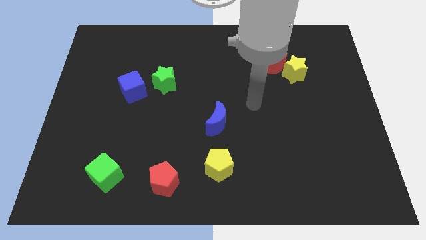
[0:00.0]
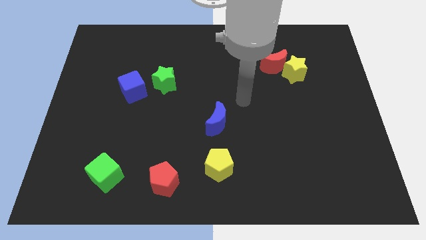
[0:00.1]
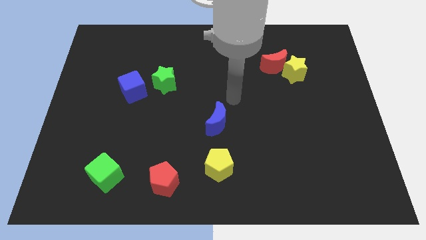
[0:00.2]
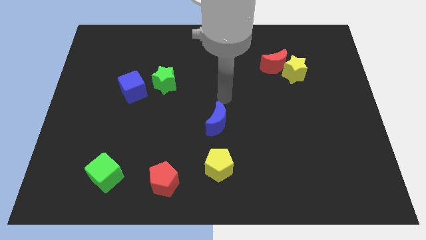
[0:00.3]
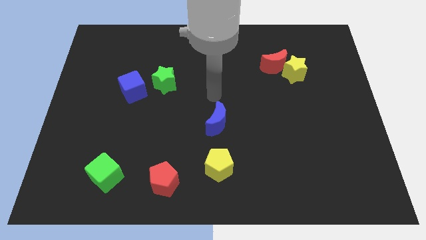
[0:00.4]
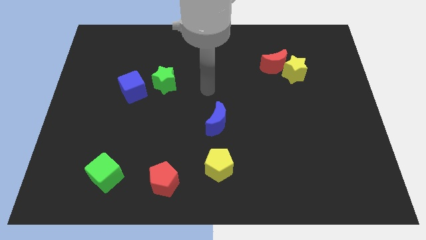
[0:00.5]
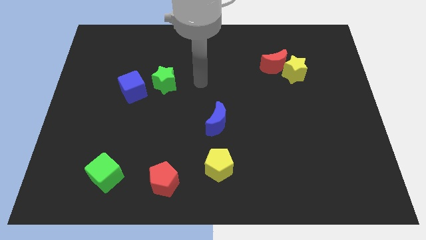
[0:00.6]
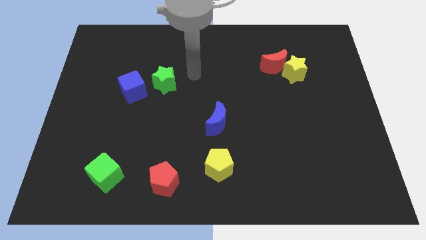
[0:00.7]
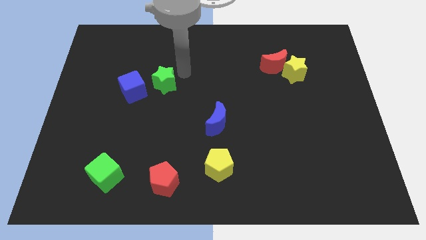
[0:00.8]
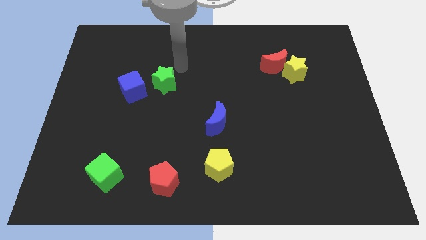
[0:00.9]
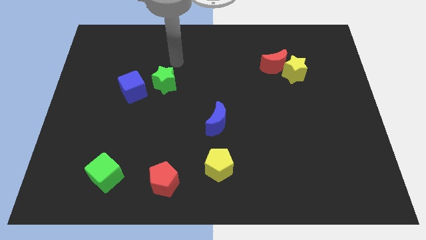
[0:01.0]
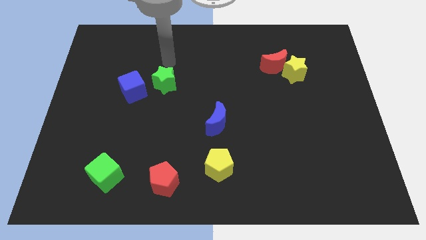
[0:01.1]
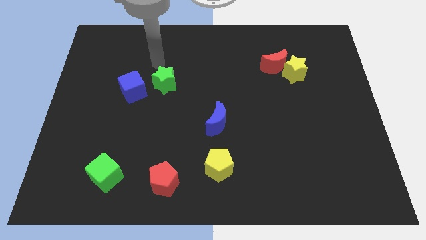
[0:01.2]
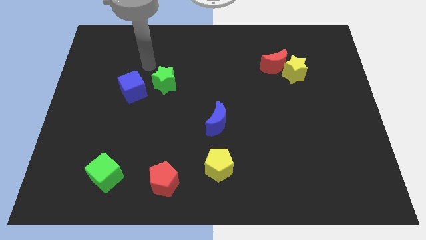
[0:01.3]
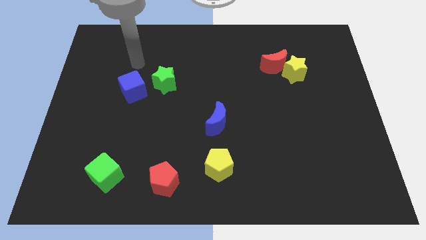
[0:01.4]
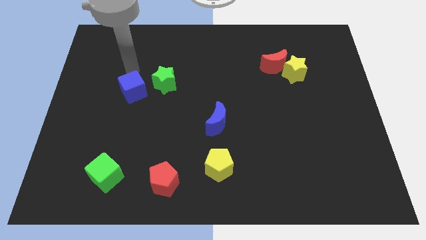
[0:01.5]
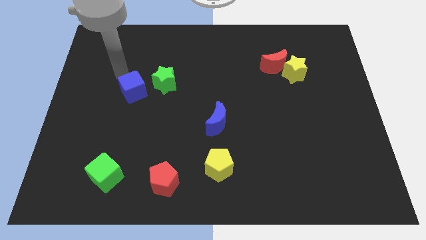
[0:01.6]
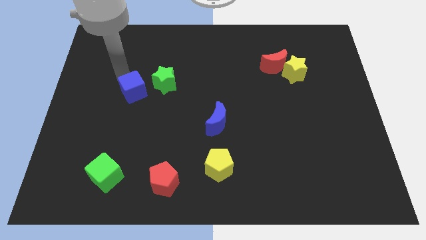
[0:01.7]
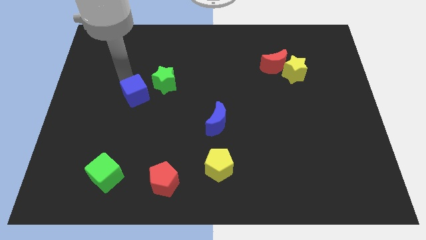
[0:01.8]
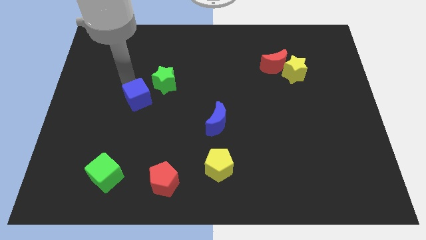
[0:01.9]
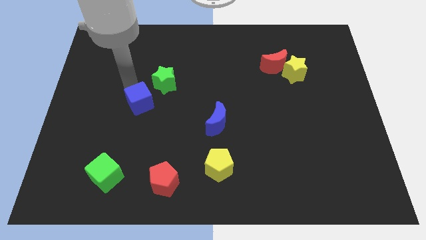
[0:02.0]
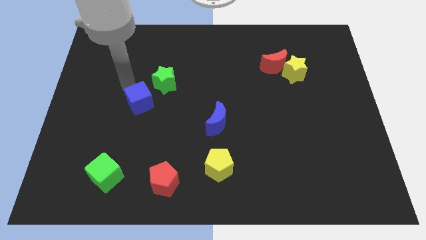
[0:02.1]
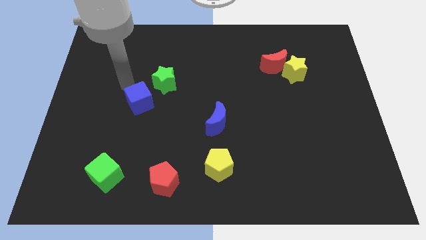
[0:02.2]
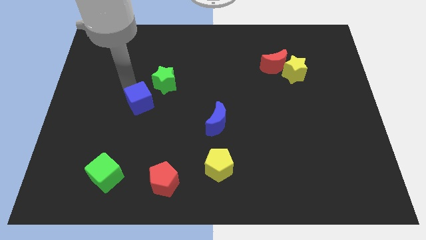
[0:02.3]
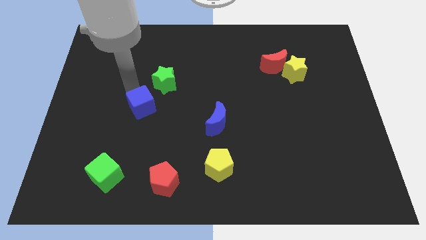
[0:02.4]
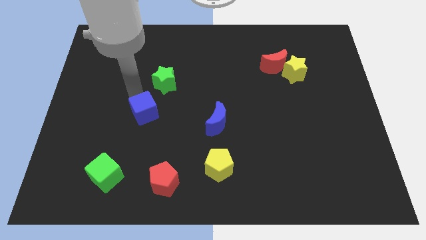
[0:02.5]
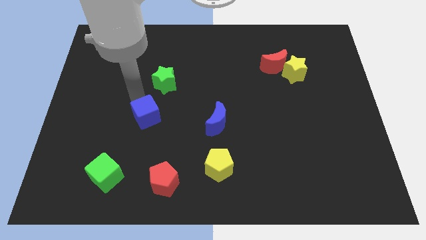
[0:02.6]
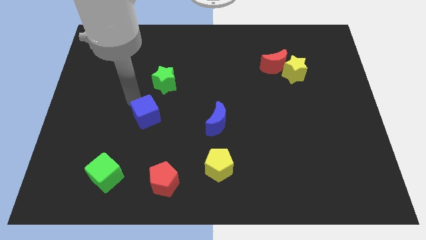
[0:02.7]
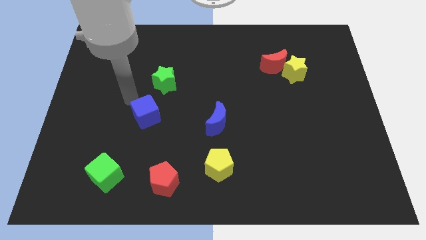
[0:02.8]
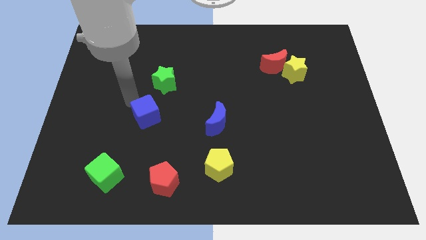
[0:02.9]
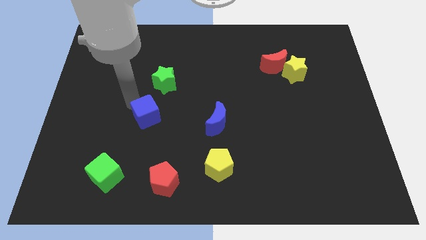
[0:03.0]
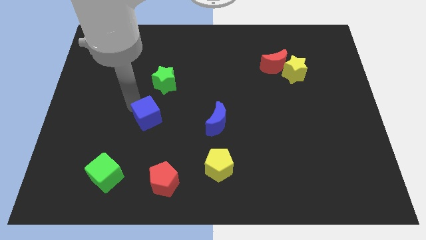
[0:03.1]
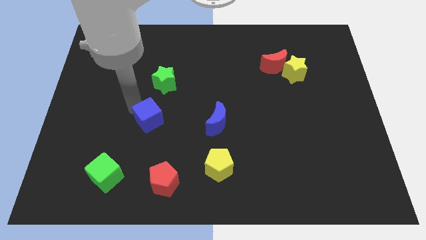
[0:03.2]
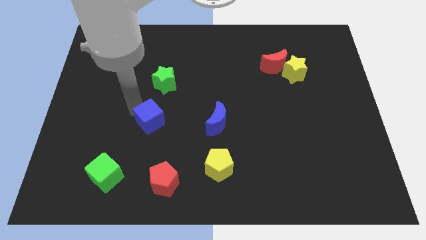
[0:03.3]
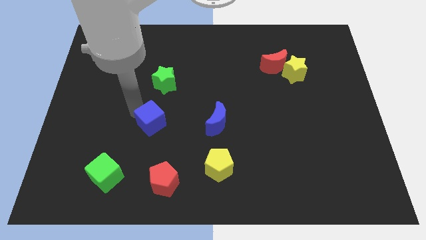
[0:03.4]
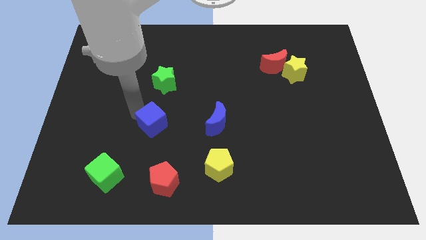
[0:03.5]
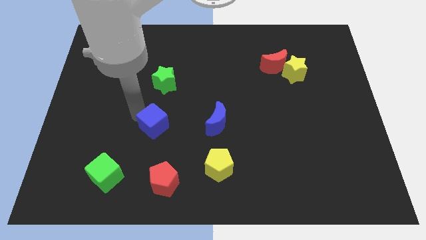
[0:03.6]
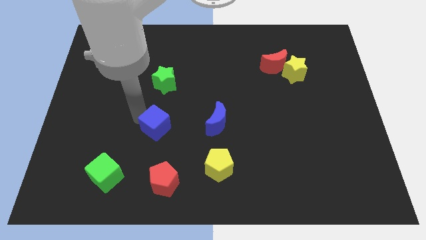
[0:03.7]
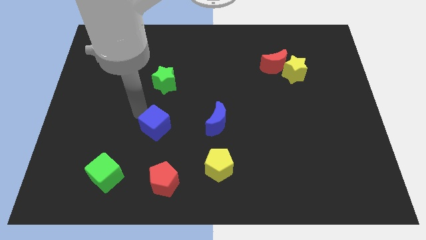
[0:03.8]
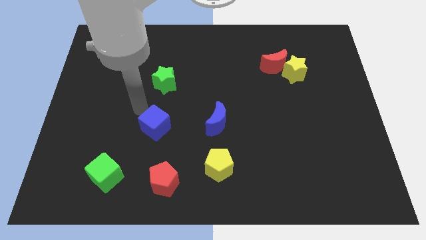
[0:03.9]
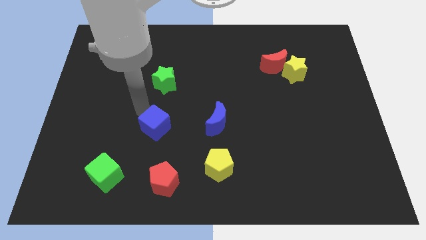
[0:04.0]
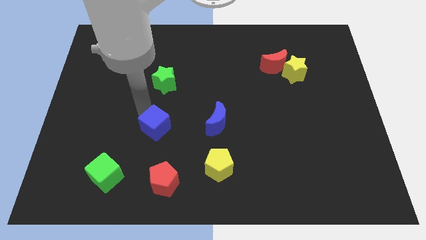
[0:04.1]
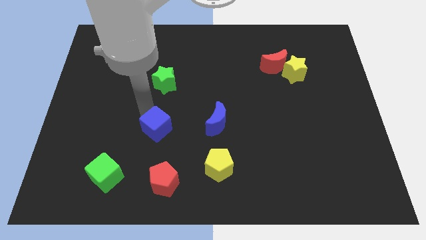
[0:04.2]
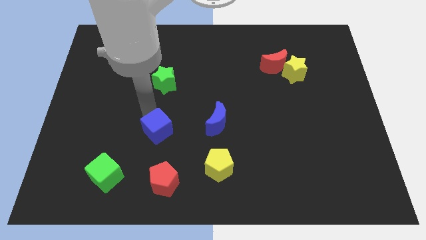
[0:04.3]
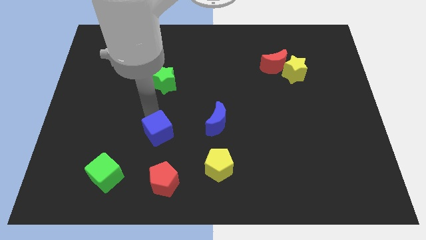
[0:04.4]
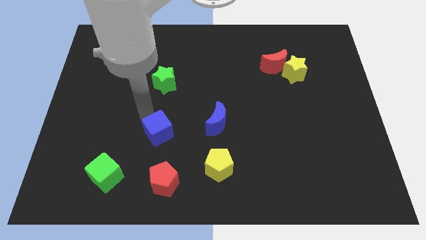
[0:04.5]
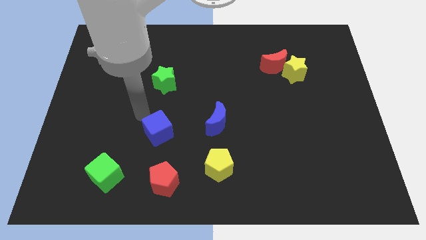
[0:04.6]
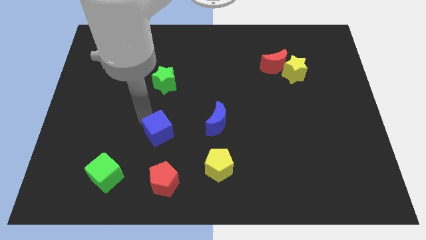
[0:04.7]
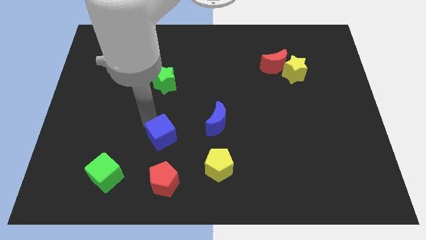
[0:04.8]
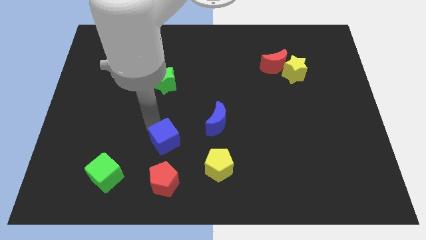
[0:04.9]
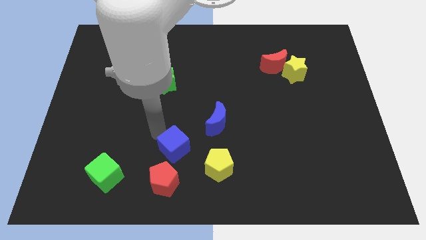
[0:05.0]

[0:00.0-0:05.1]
put the blue cube diagonally up and to the right of the red pentagon

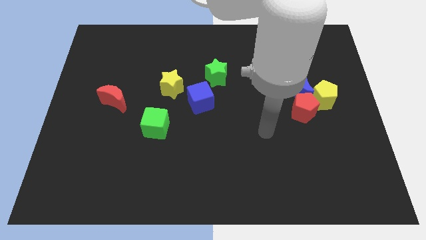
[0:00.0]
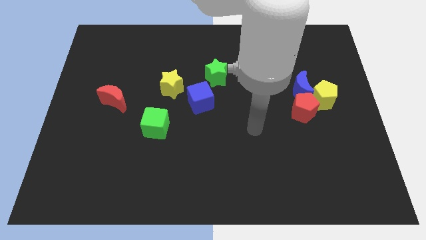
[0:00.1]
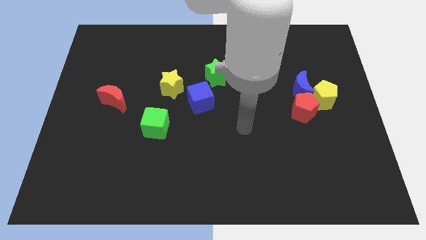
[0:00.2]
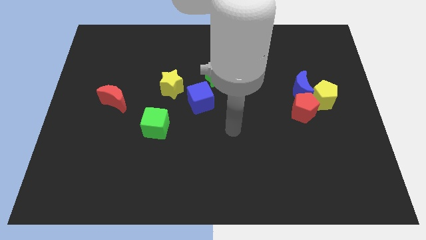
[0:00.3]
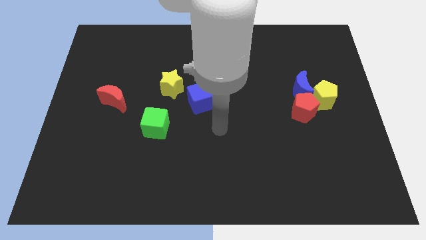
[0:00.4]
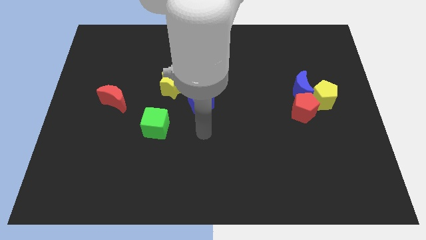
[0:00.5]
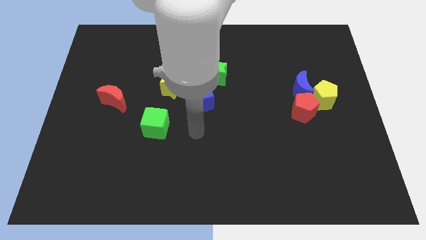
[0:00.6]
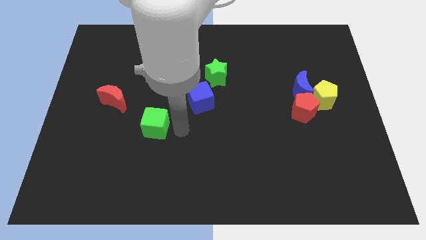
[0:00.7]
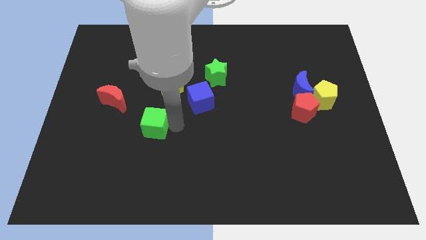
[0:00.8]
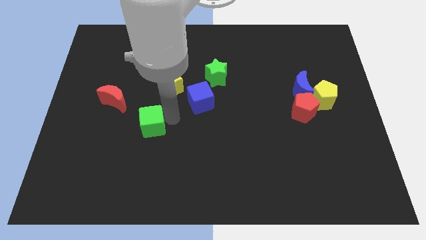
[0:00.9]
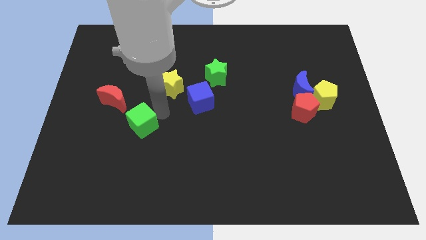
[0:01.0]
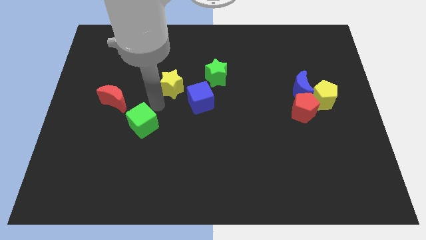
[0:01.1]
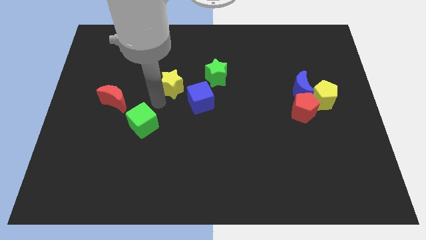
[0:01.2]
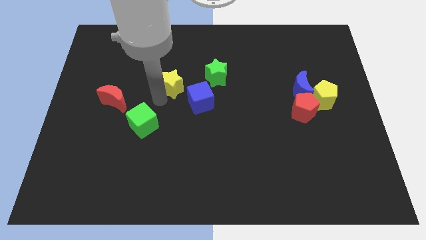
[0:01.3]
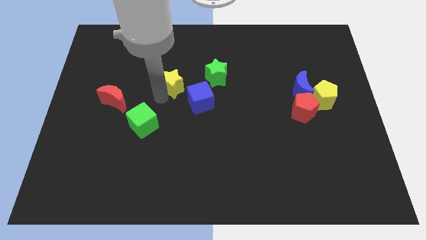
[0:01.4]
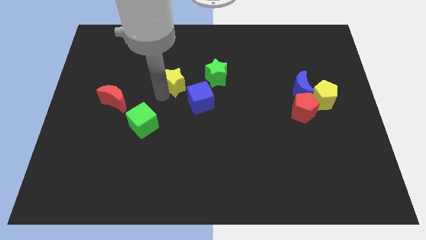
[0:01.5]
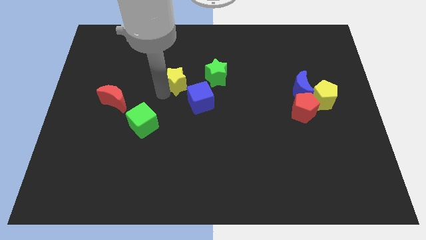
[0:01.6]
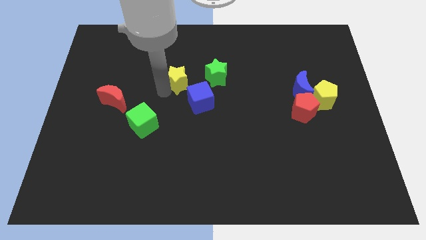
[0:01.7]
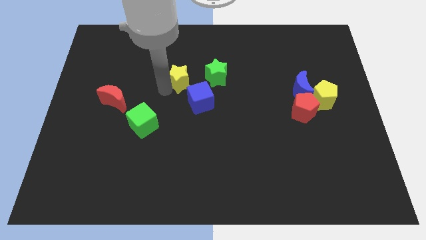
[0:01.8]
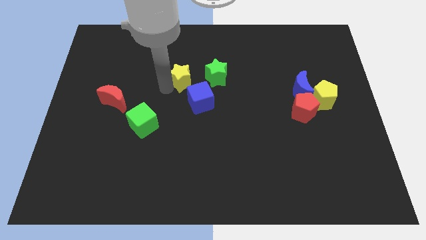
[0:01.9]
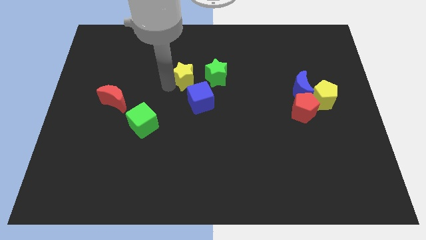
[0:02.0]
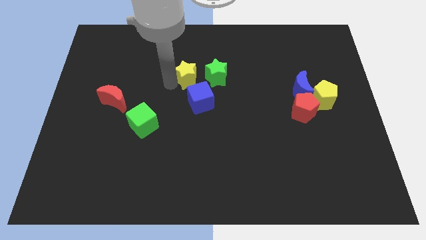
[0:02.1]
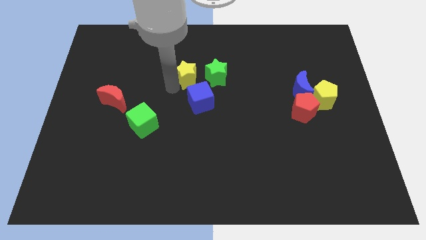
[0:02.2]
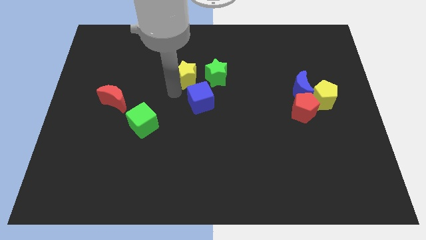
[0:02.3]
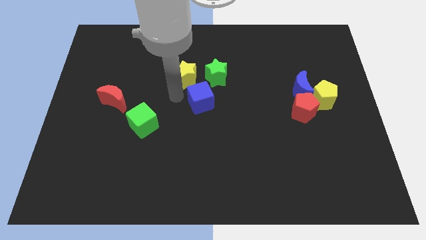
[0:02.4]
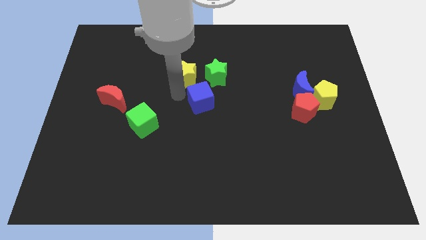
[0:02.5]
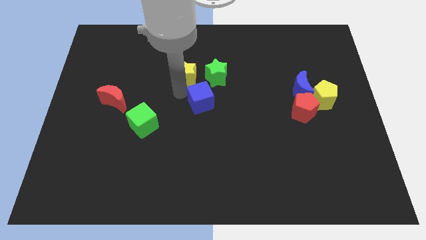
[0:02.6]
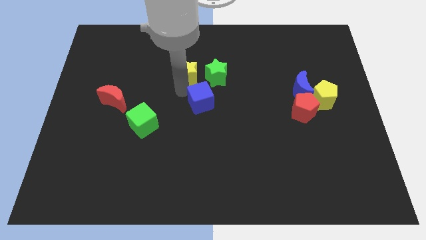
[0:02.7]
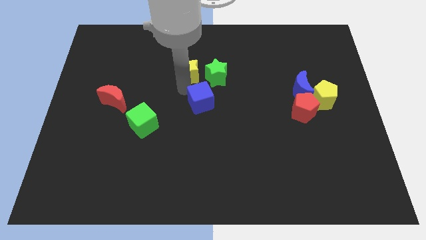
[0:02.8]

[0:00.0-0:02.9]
push the yellow star diagonally up and to the left of the green star
